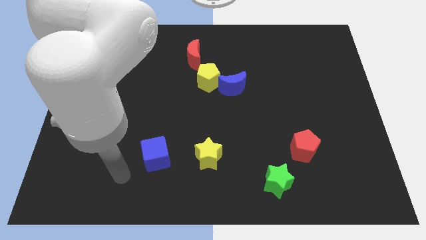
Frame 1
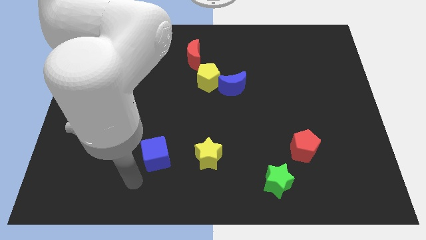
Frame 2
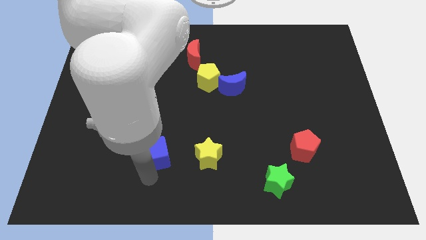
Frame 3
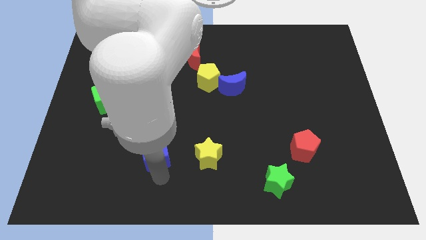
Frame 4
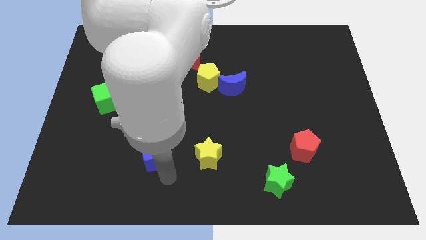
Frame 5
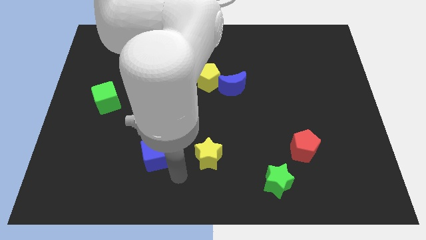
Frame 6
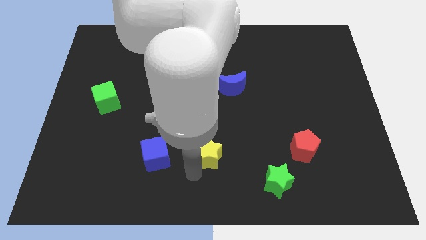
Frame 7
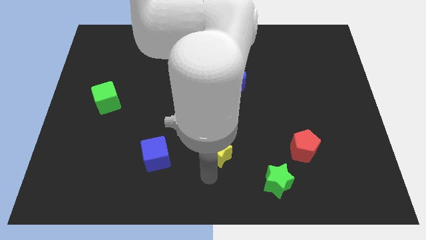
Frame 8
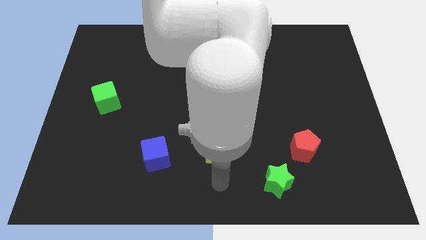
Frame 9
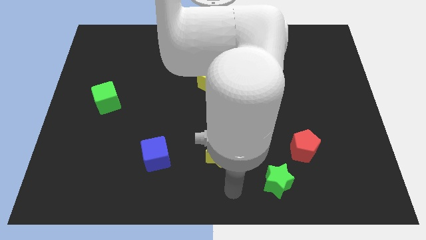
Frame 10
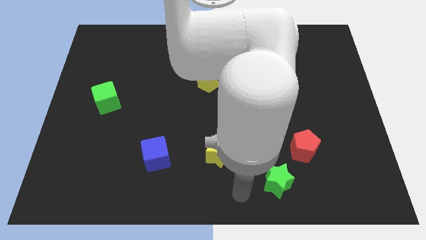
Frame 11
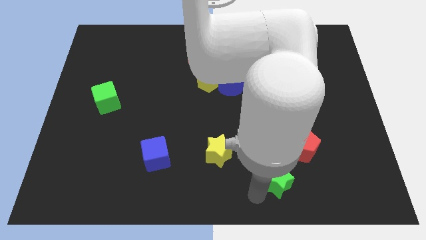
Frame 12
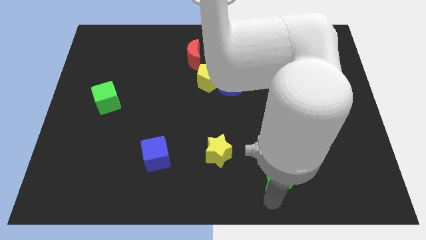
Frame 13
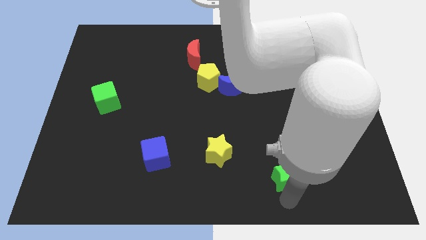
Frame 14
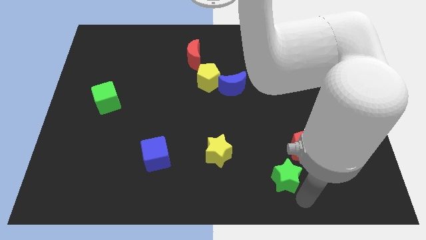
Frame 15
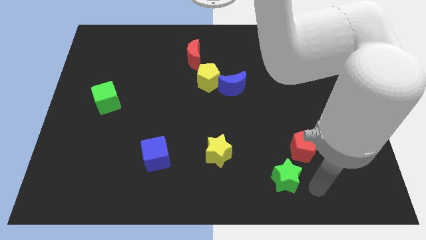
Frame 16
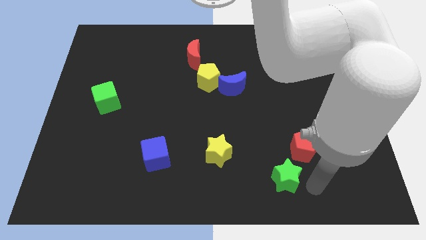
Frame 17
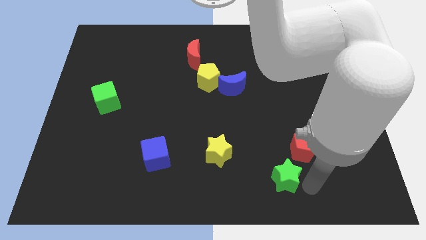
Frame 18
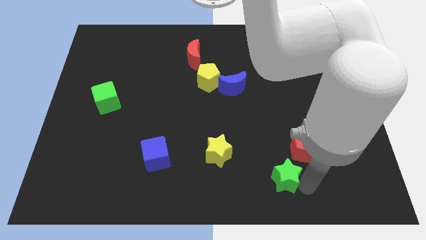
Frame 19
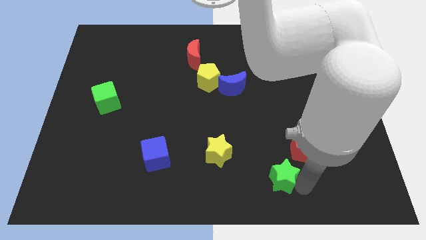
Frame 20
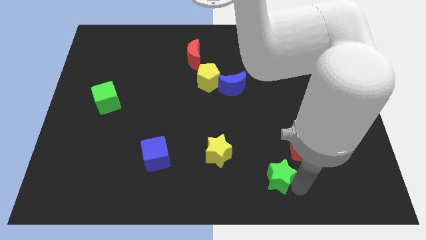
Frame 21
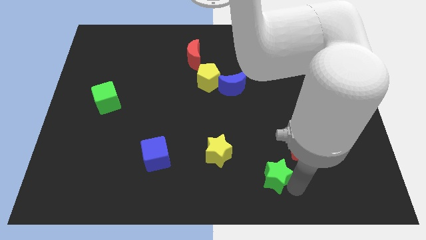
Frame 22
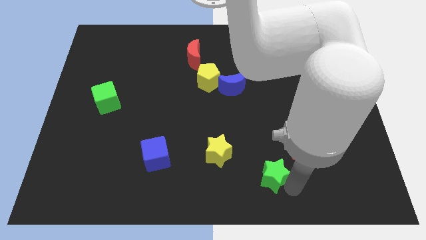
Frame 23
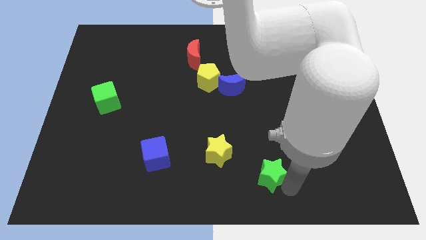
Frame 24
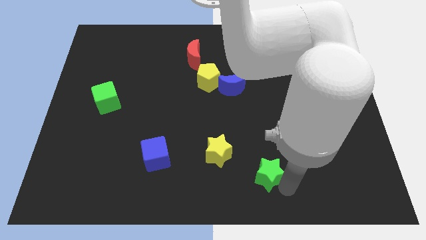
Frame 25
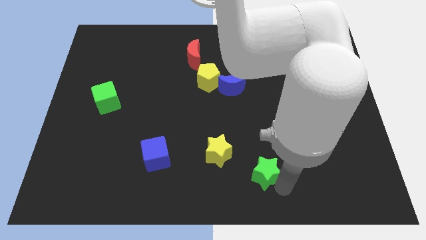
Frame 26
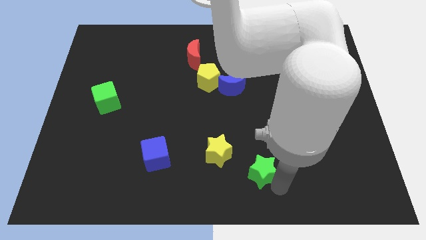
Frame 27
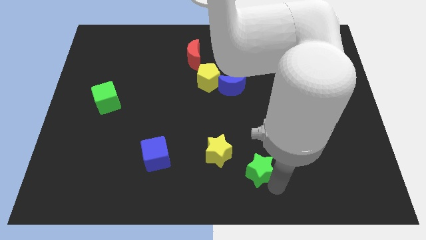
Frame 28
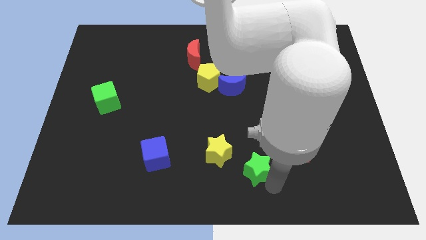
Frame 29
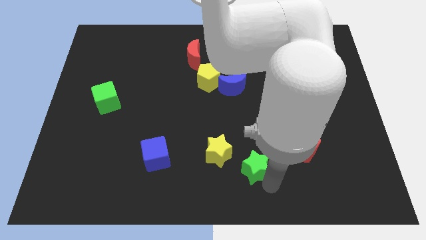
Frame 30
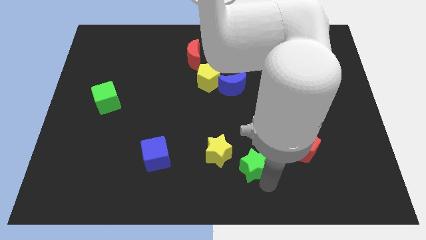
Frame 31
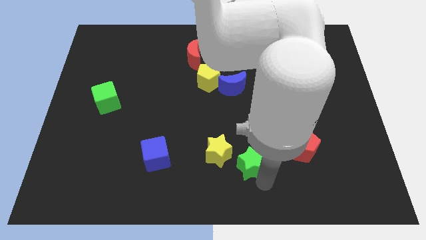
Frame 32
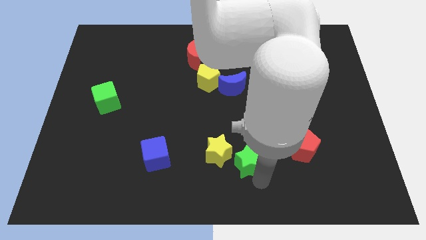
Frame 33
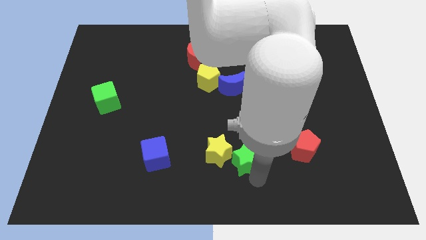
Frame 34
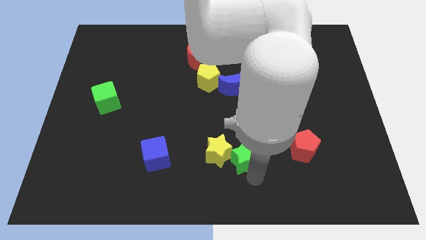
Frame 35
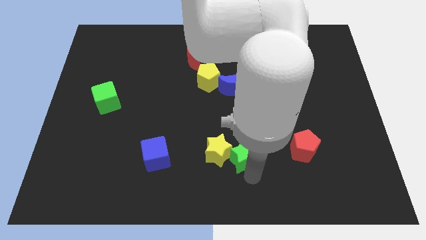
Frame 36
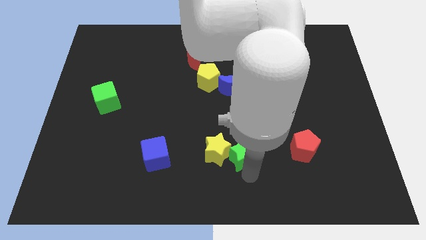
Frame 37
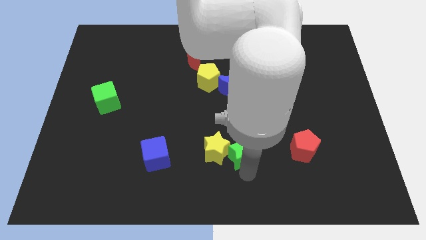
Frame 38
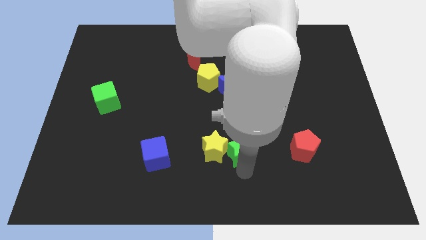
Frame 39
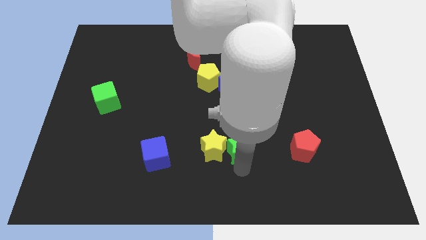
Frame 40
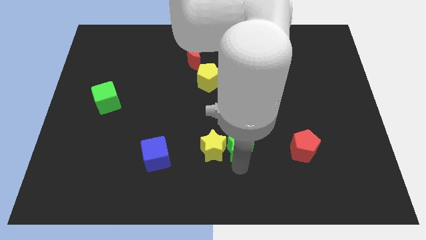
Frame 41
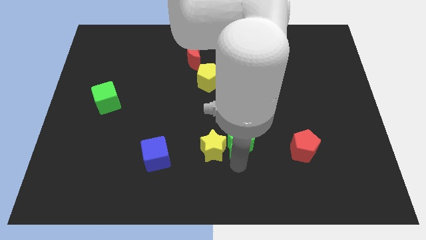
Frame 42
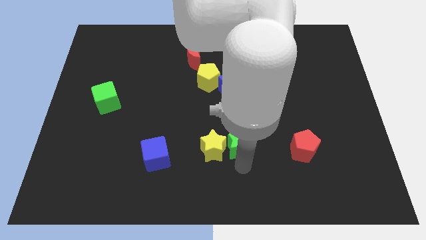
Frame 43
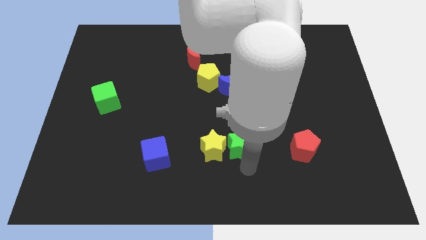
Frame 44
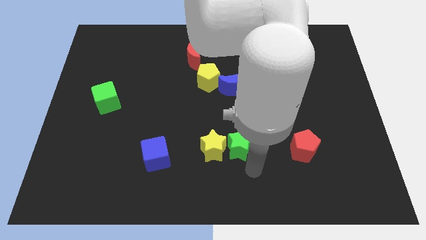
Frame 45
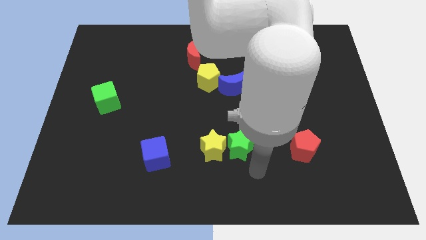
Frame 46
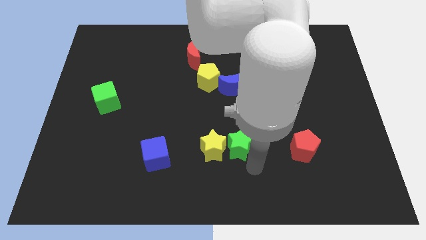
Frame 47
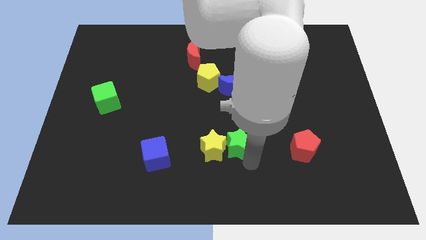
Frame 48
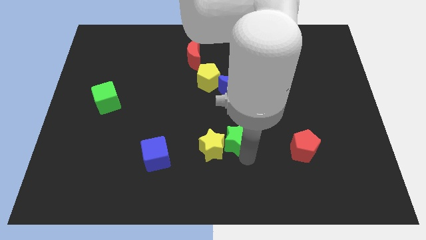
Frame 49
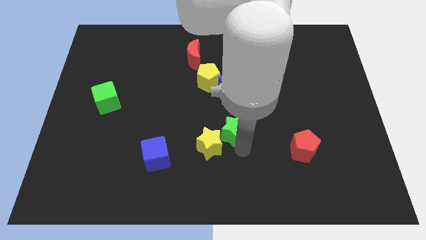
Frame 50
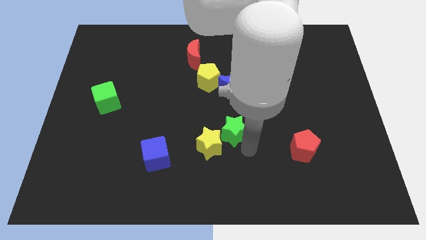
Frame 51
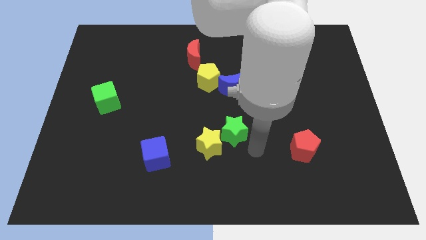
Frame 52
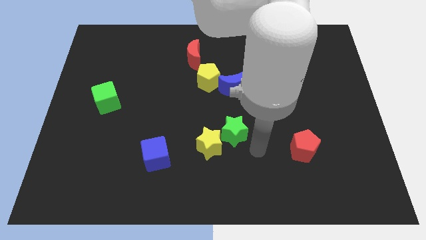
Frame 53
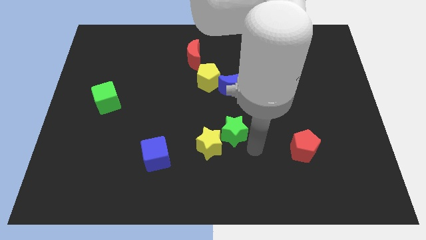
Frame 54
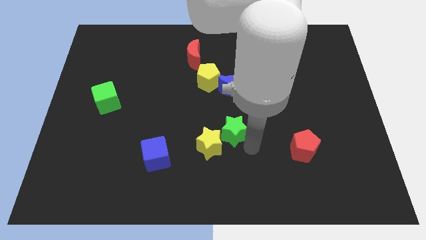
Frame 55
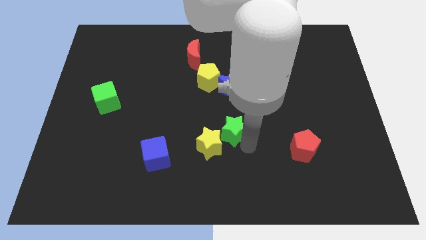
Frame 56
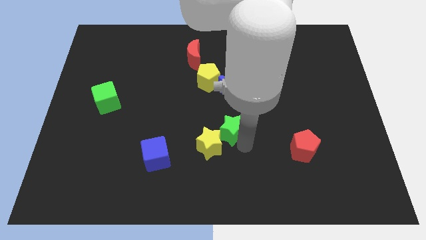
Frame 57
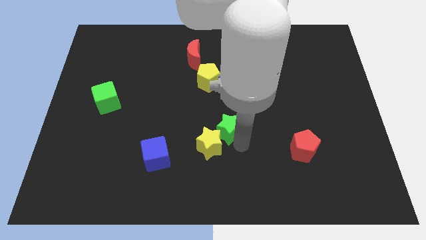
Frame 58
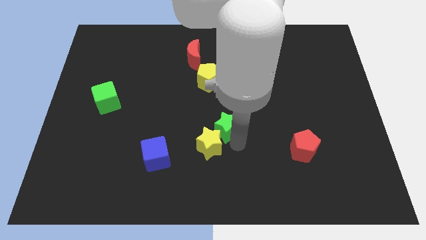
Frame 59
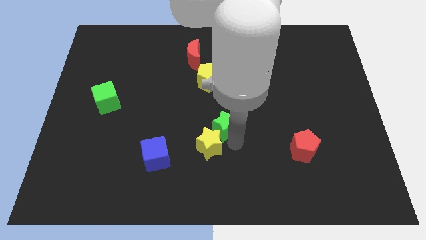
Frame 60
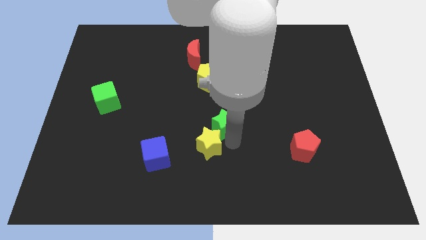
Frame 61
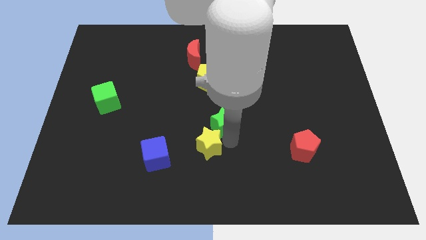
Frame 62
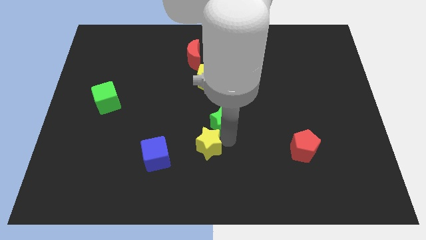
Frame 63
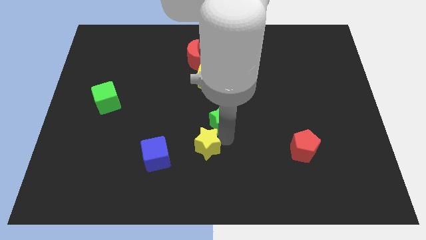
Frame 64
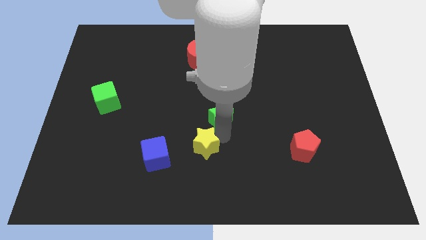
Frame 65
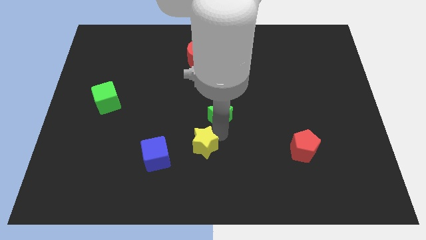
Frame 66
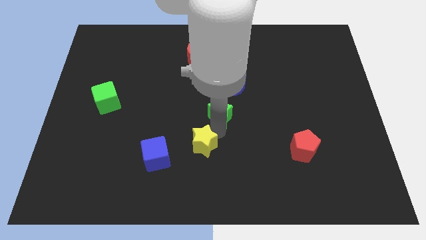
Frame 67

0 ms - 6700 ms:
move the green star diagonally up and left

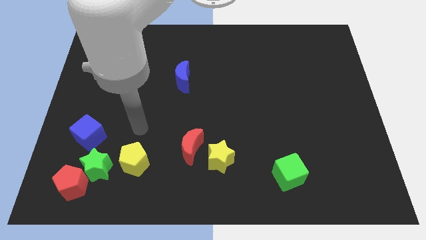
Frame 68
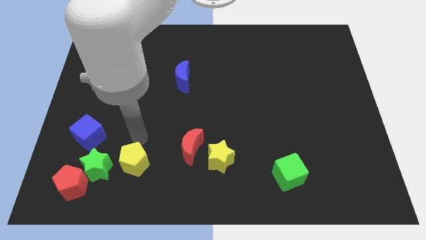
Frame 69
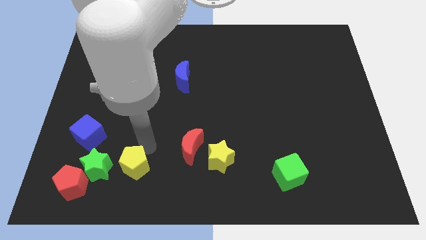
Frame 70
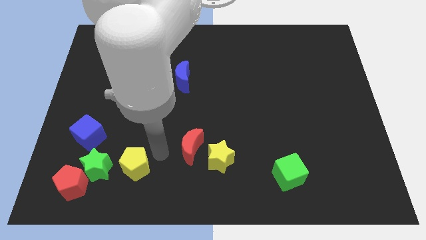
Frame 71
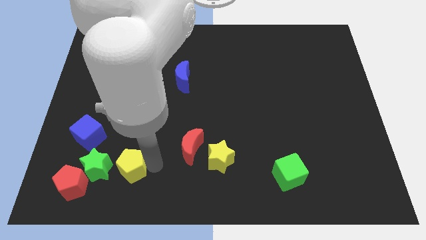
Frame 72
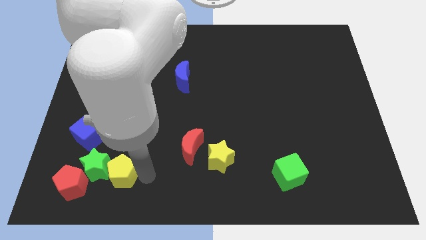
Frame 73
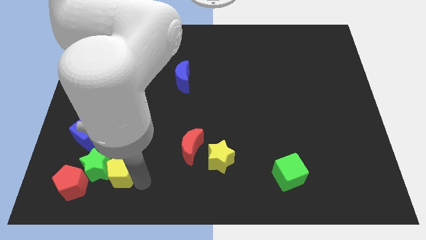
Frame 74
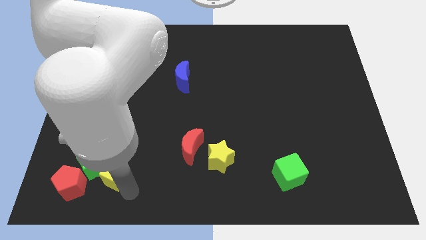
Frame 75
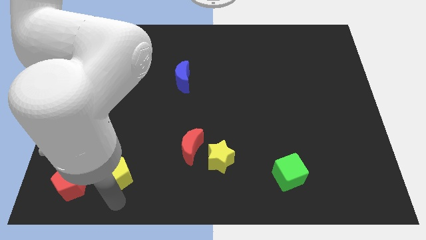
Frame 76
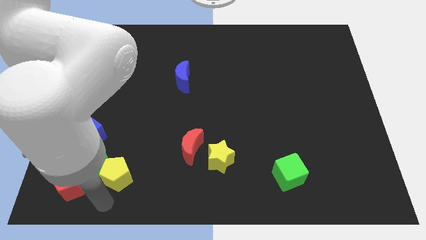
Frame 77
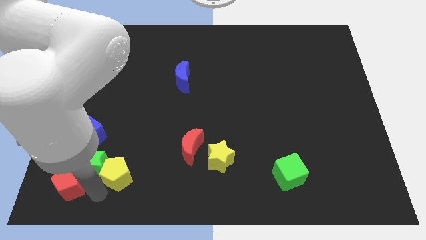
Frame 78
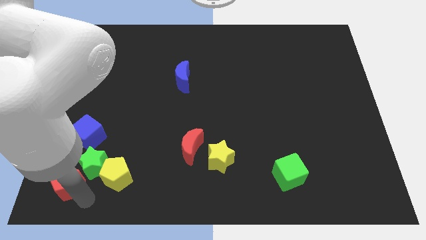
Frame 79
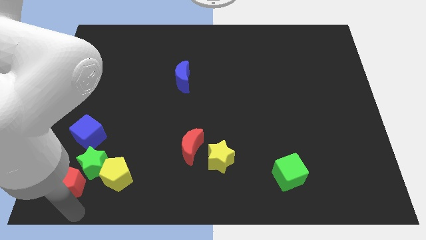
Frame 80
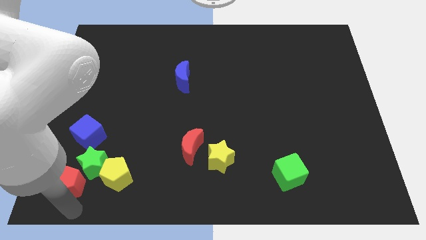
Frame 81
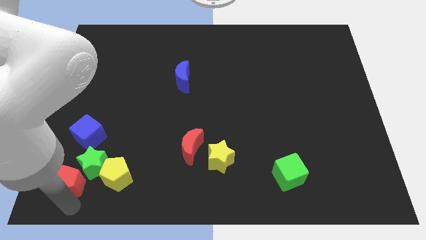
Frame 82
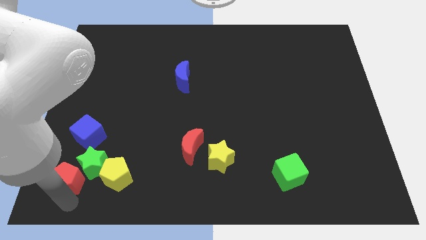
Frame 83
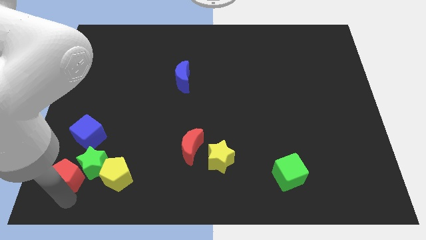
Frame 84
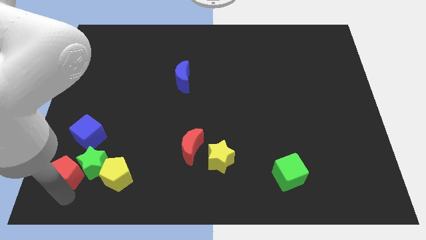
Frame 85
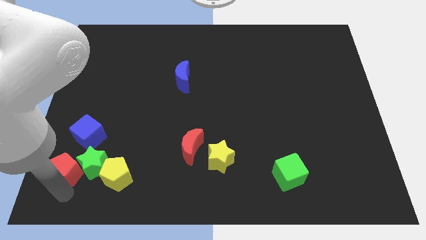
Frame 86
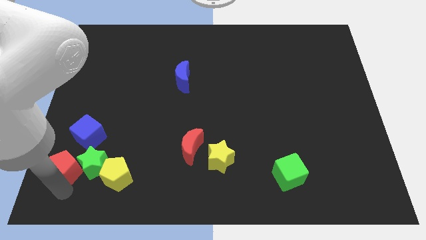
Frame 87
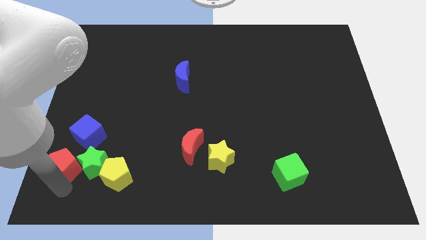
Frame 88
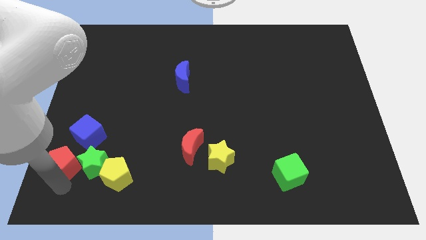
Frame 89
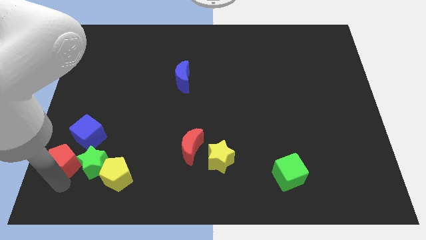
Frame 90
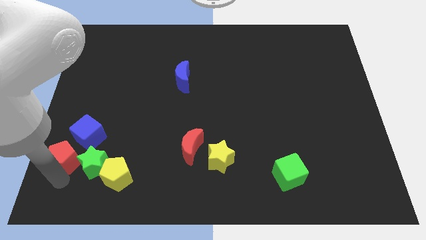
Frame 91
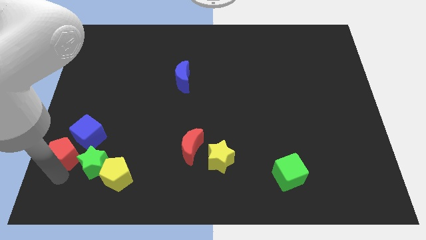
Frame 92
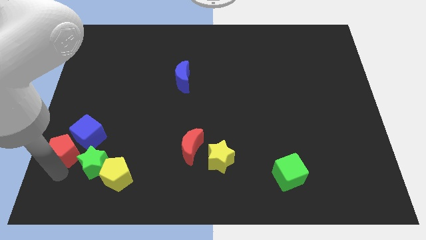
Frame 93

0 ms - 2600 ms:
slide the red pentagon a bit upwards
